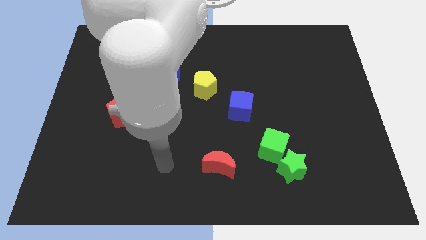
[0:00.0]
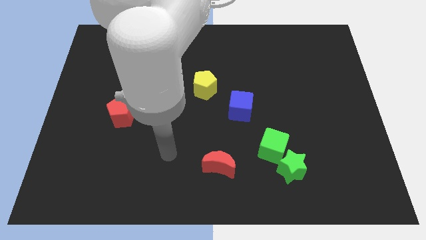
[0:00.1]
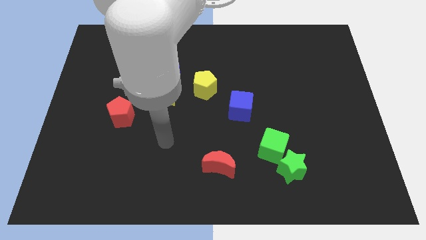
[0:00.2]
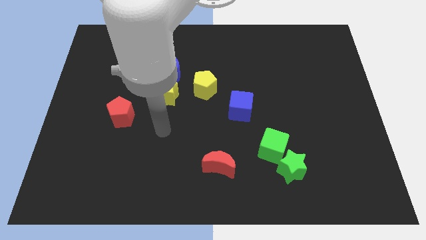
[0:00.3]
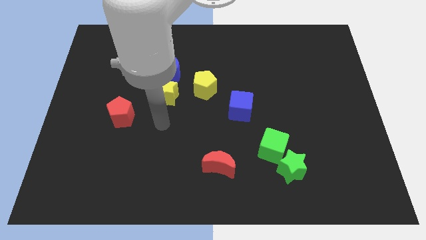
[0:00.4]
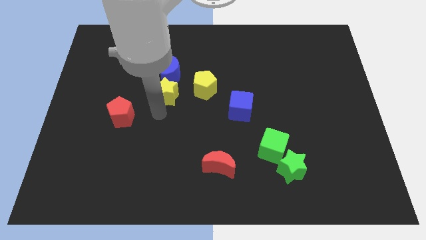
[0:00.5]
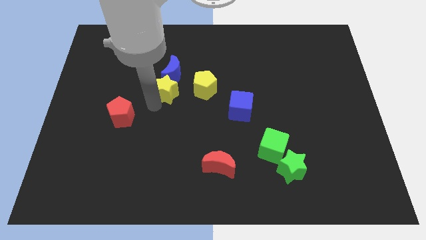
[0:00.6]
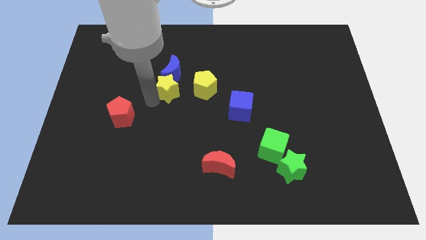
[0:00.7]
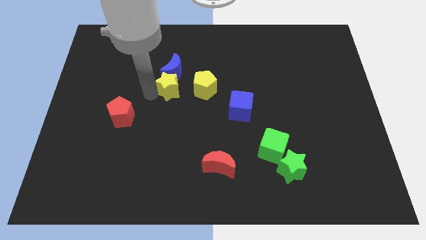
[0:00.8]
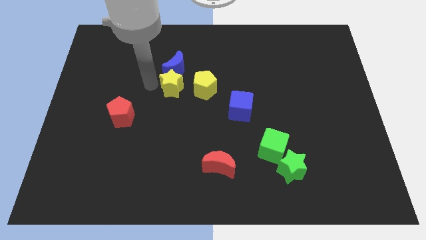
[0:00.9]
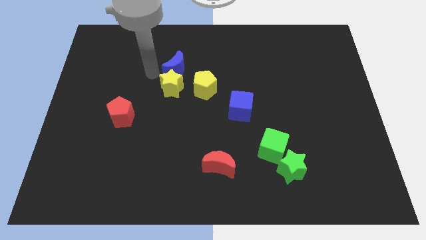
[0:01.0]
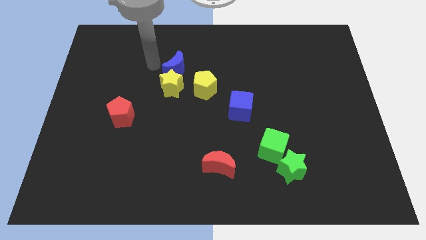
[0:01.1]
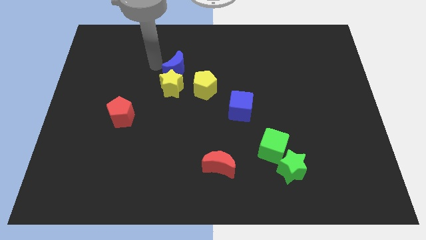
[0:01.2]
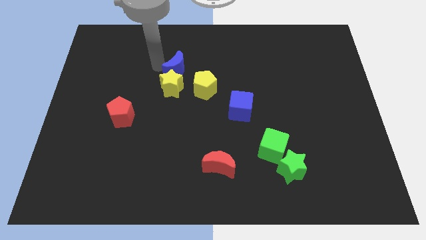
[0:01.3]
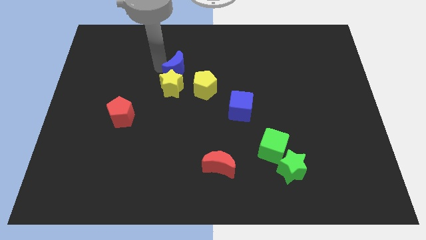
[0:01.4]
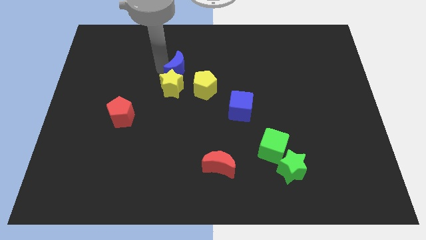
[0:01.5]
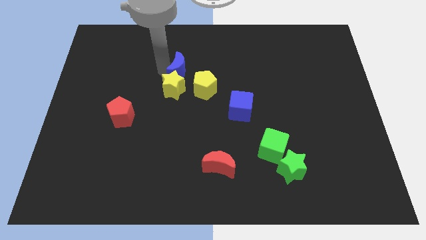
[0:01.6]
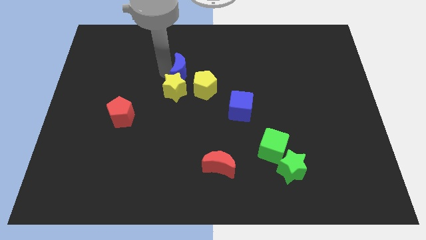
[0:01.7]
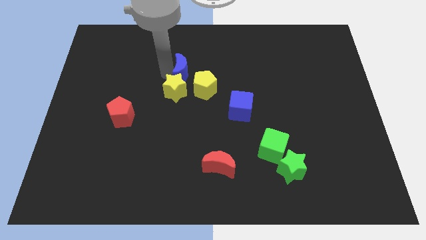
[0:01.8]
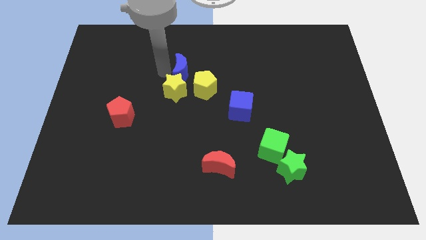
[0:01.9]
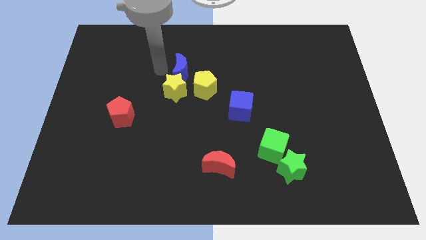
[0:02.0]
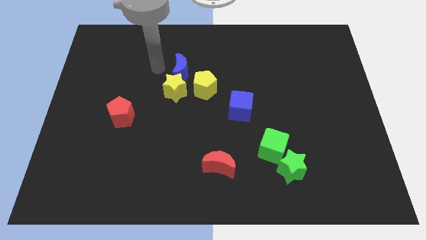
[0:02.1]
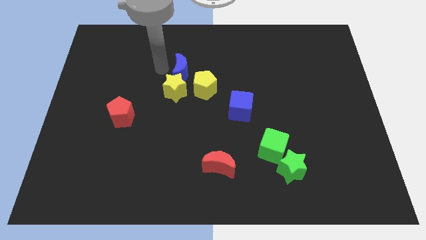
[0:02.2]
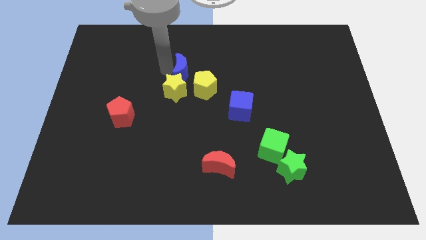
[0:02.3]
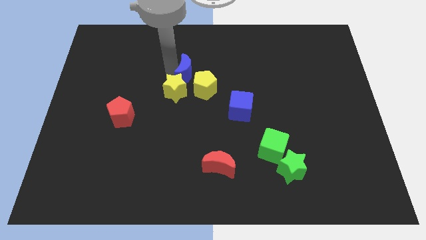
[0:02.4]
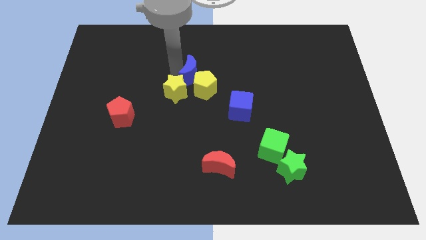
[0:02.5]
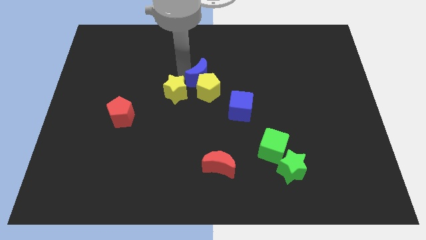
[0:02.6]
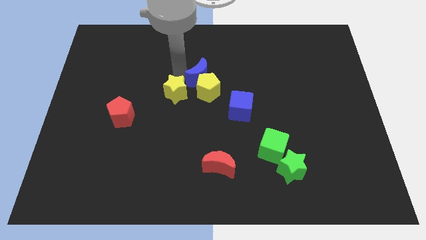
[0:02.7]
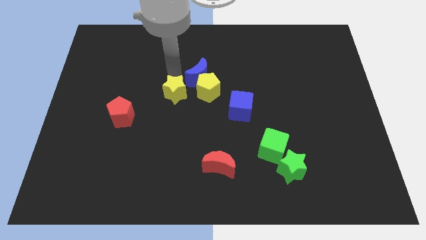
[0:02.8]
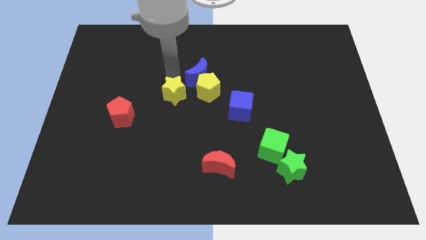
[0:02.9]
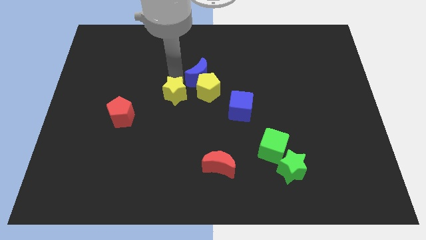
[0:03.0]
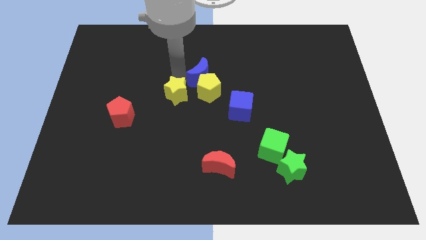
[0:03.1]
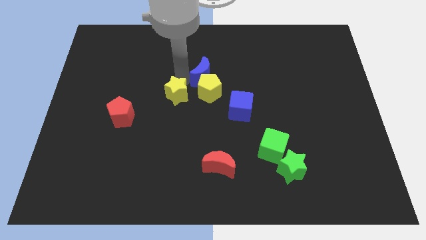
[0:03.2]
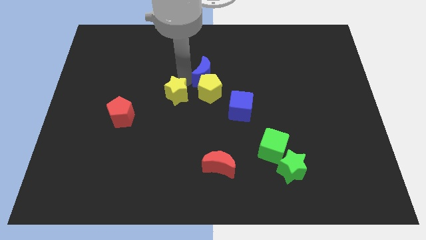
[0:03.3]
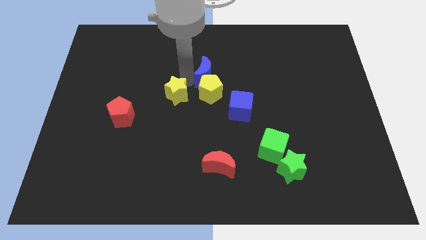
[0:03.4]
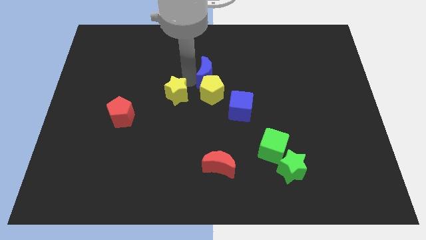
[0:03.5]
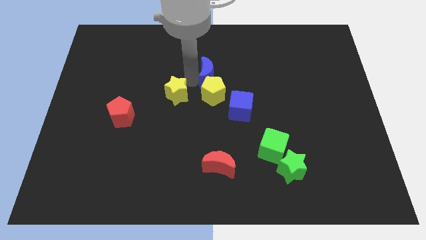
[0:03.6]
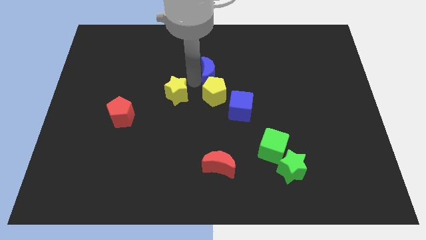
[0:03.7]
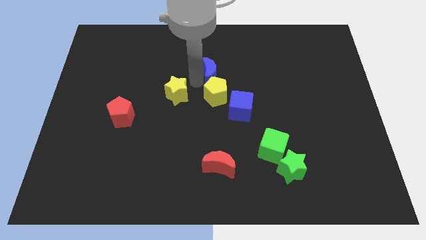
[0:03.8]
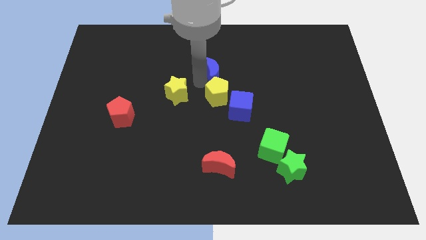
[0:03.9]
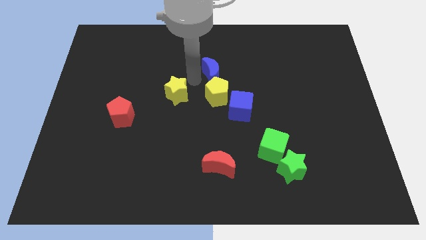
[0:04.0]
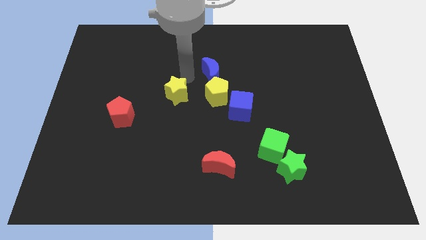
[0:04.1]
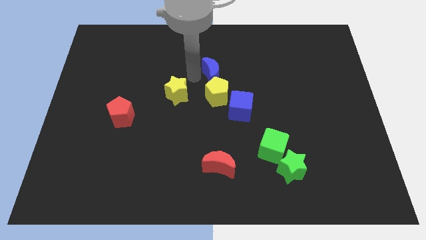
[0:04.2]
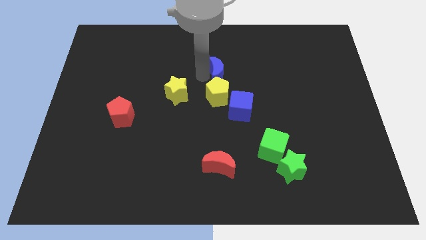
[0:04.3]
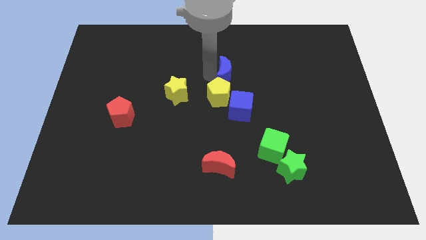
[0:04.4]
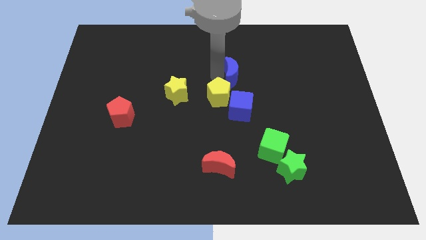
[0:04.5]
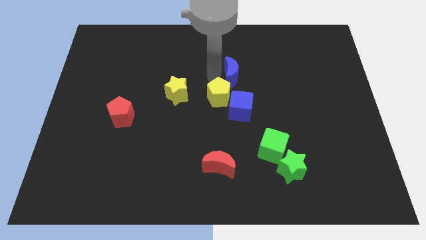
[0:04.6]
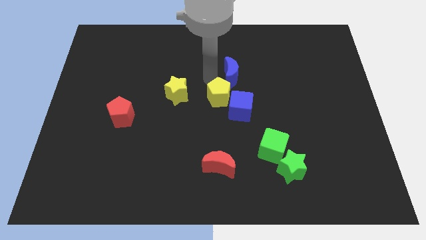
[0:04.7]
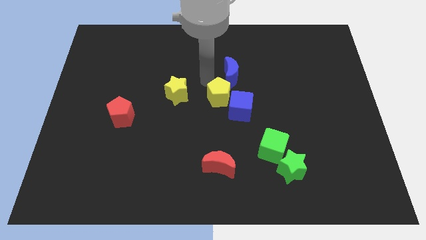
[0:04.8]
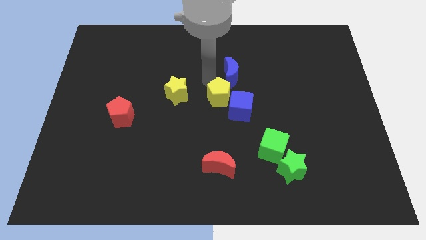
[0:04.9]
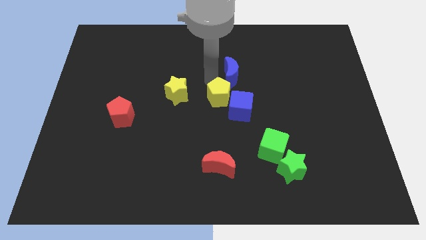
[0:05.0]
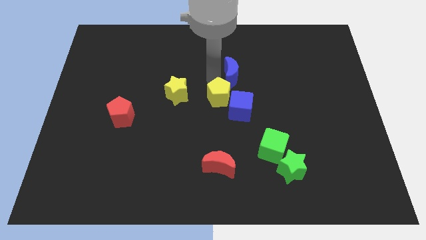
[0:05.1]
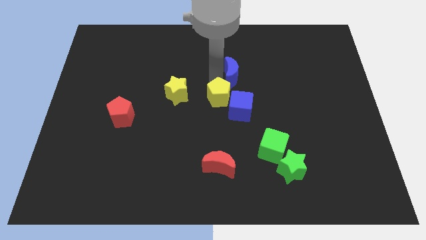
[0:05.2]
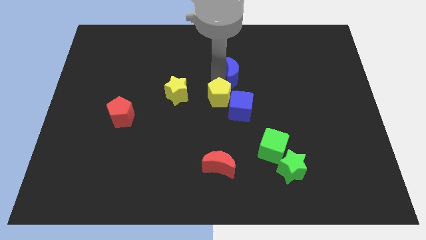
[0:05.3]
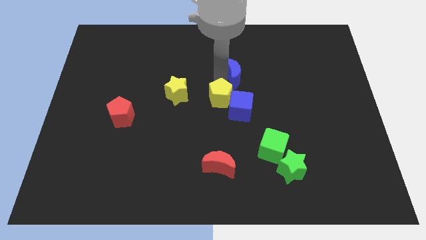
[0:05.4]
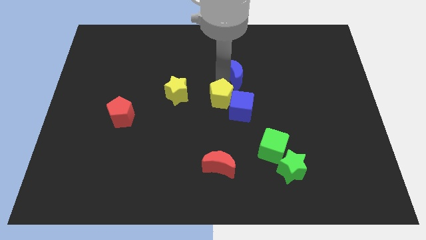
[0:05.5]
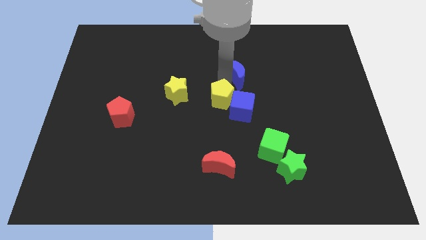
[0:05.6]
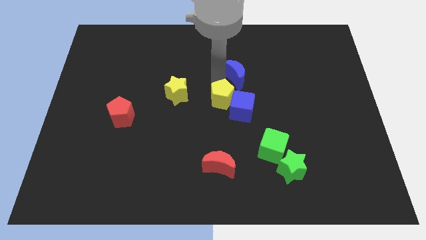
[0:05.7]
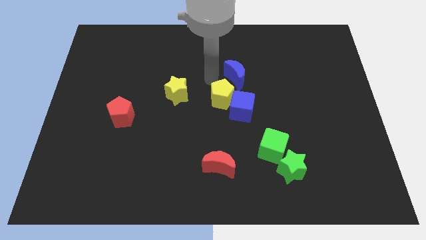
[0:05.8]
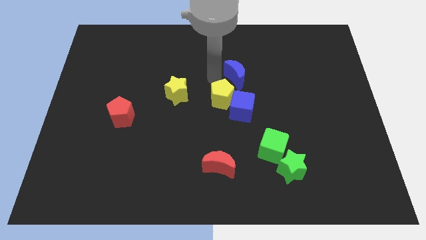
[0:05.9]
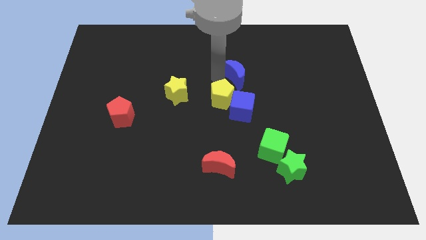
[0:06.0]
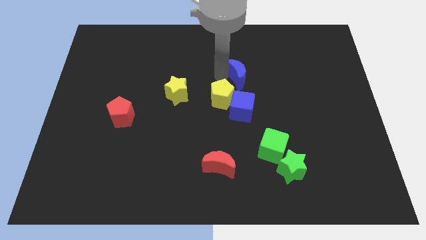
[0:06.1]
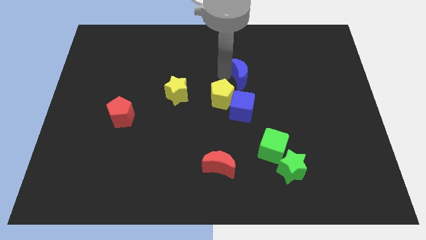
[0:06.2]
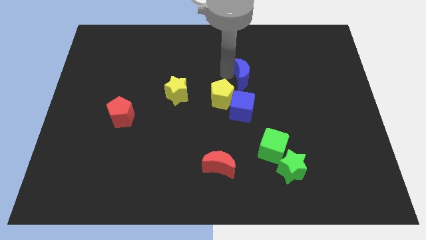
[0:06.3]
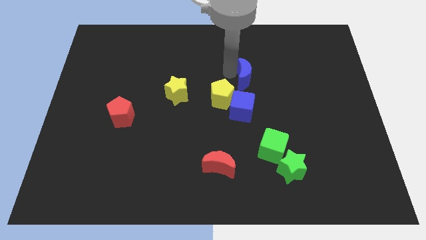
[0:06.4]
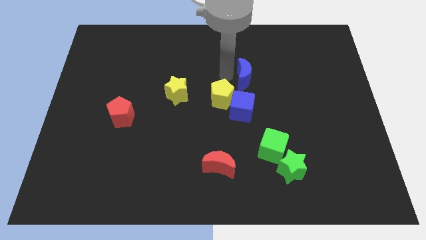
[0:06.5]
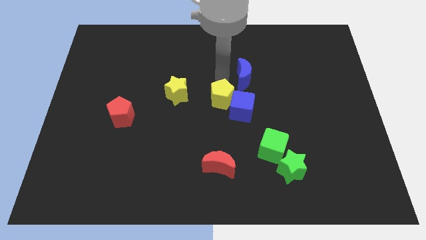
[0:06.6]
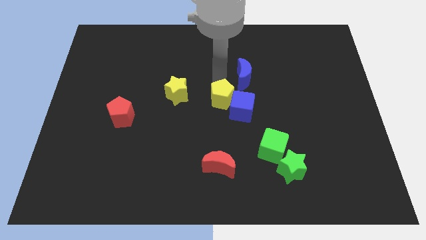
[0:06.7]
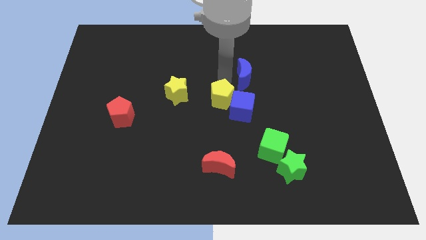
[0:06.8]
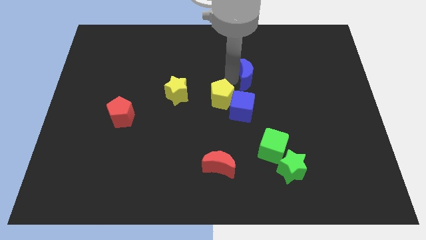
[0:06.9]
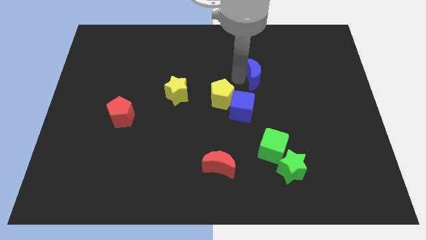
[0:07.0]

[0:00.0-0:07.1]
move the blue moon right

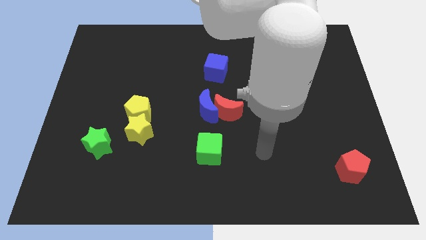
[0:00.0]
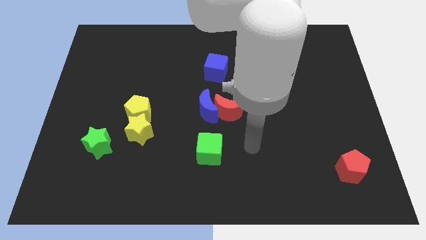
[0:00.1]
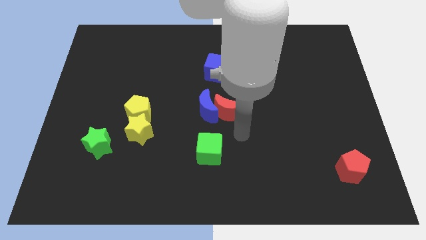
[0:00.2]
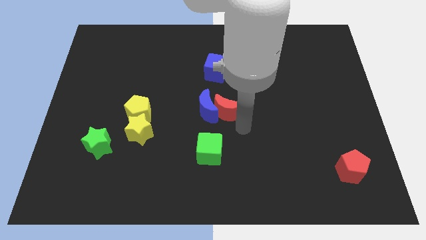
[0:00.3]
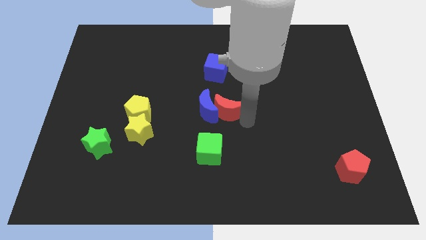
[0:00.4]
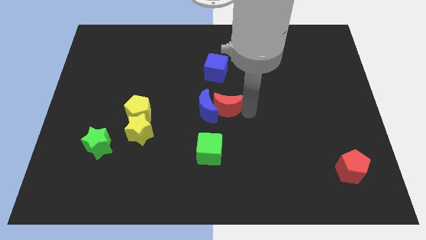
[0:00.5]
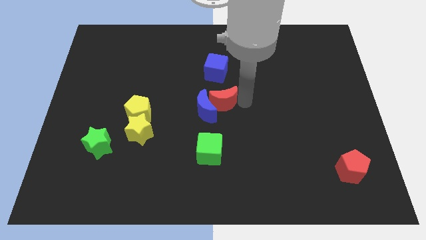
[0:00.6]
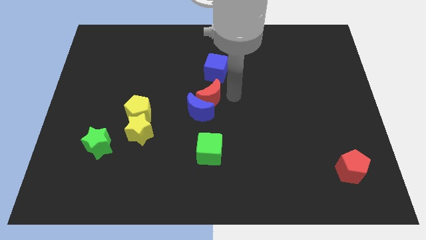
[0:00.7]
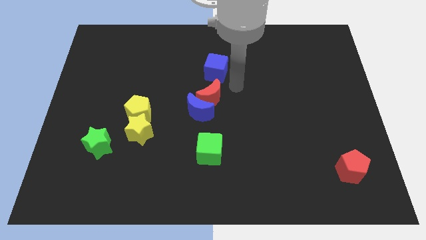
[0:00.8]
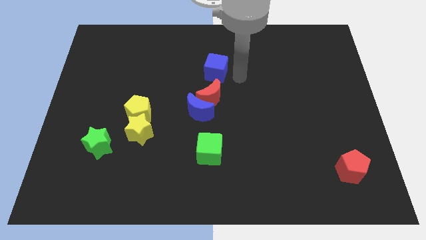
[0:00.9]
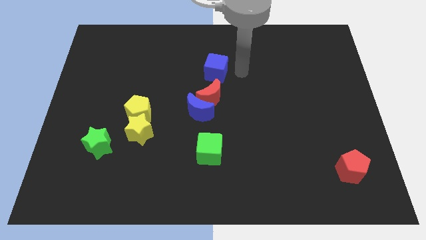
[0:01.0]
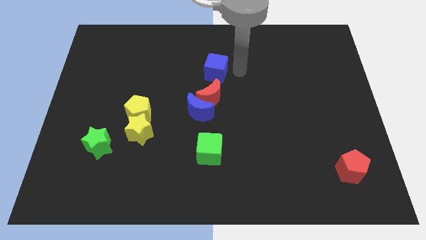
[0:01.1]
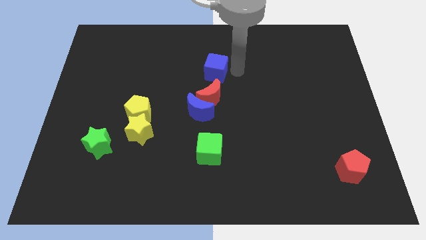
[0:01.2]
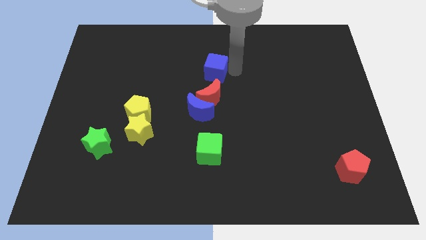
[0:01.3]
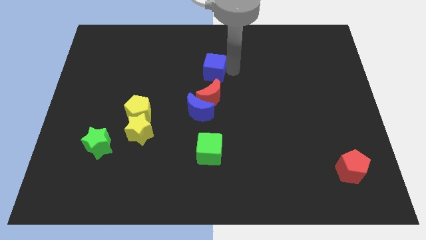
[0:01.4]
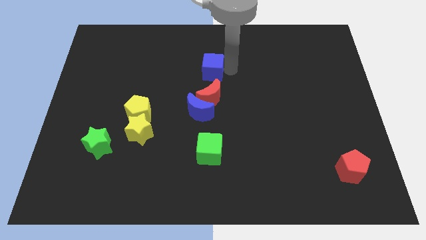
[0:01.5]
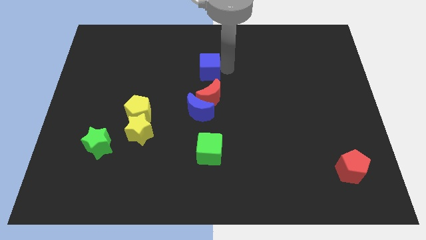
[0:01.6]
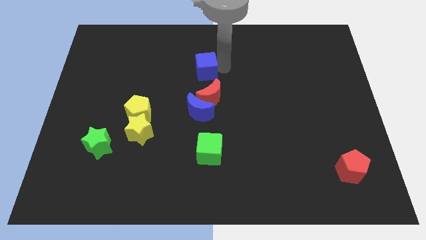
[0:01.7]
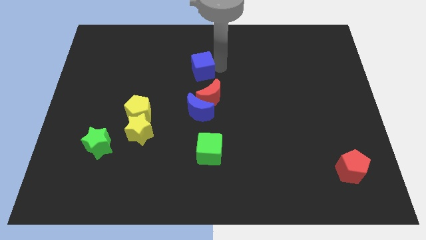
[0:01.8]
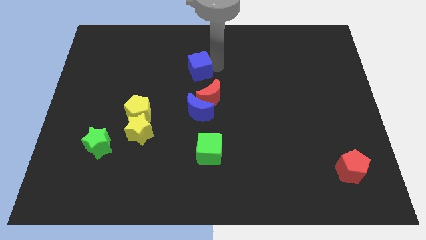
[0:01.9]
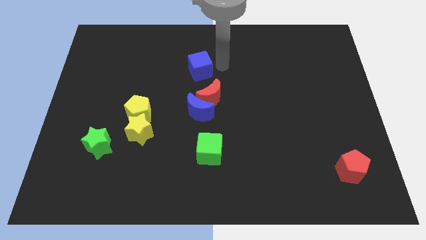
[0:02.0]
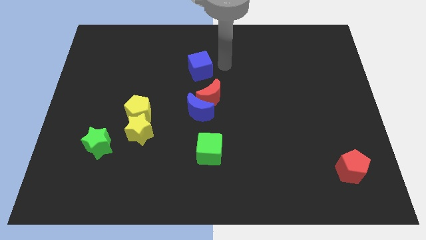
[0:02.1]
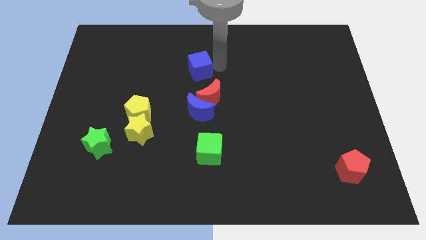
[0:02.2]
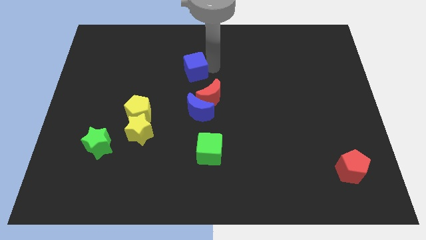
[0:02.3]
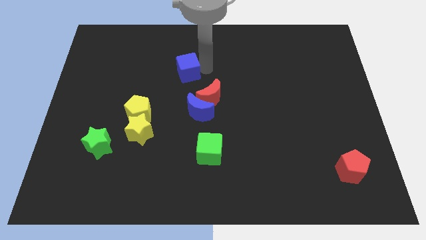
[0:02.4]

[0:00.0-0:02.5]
slightly slide the blue cube left
